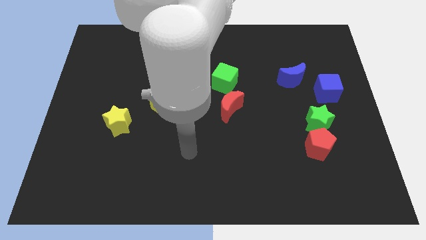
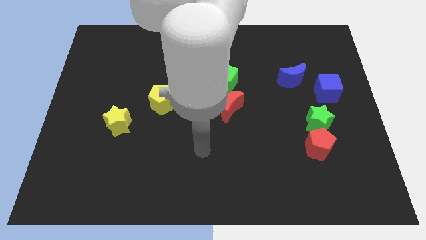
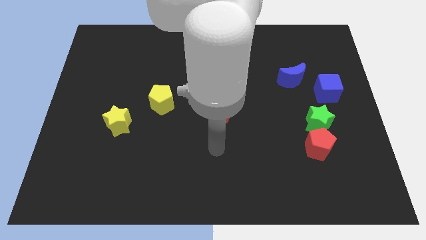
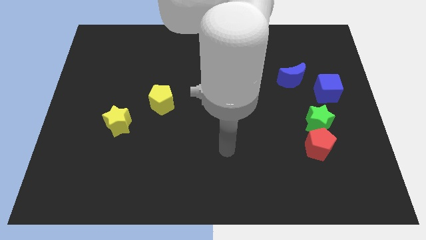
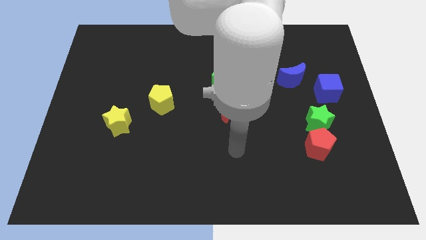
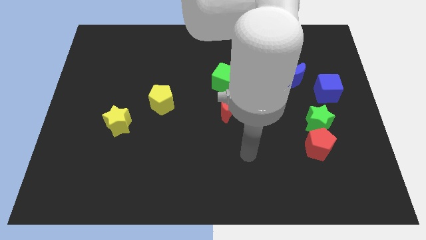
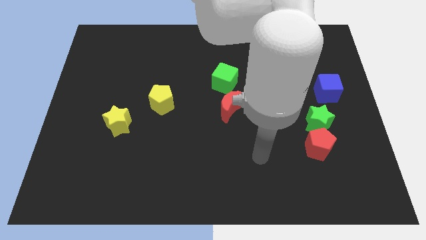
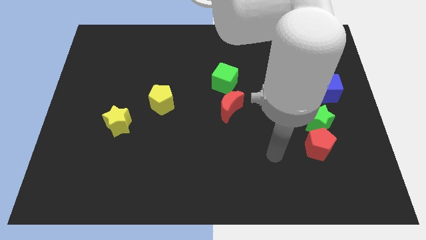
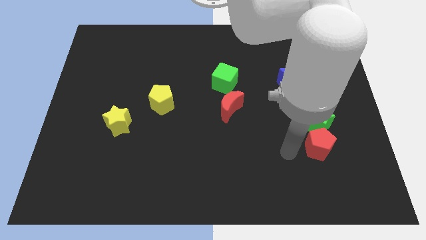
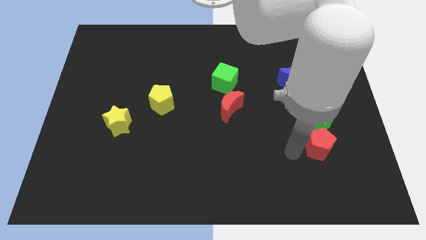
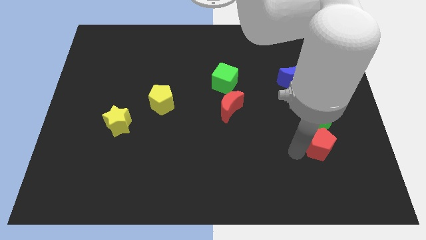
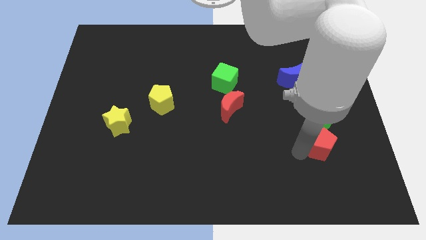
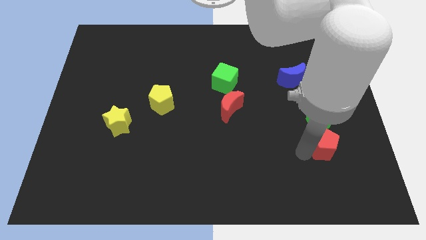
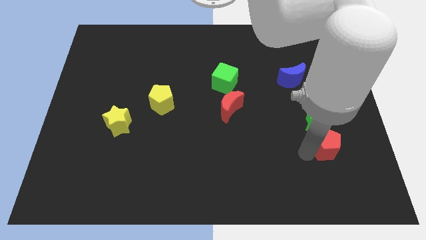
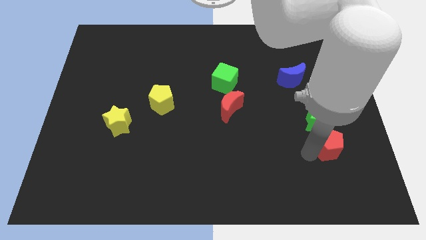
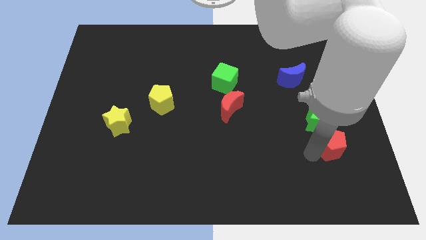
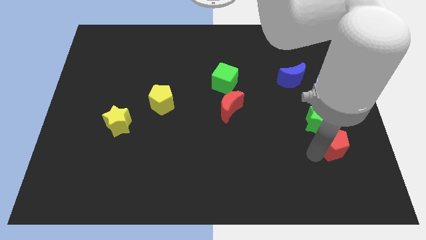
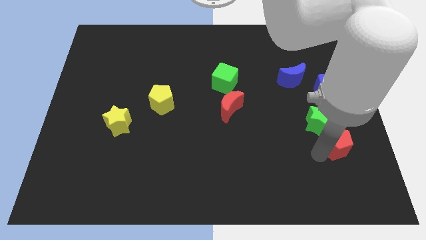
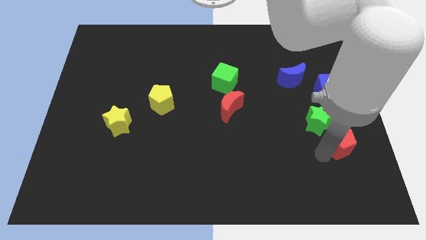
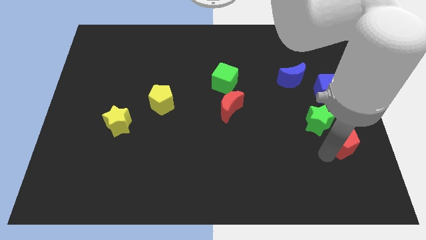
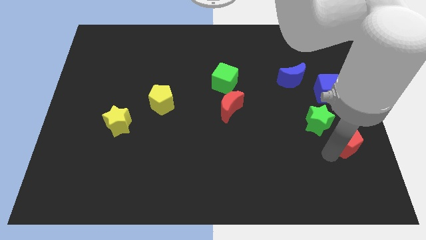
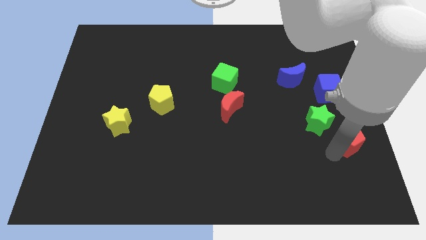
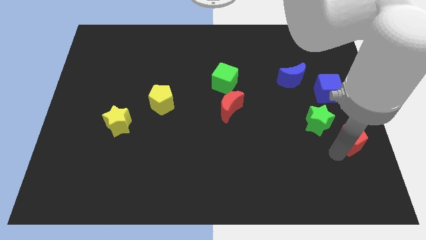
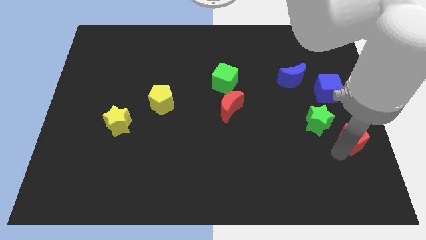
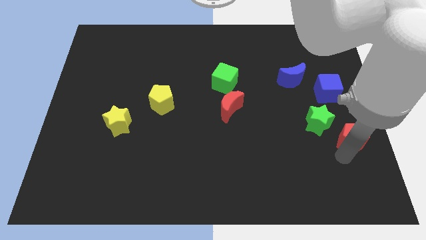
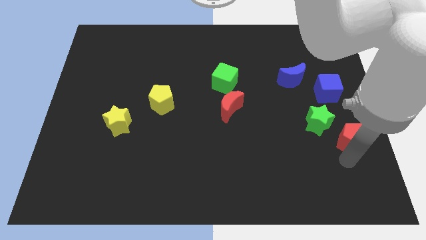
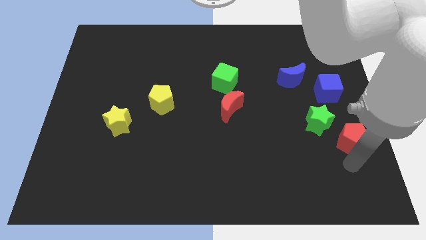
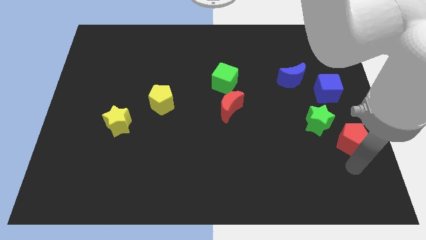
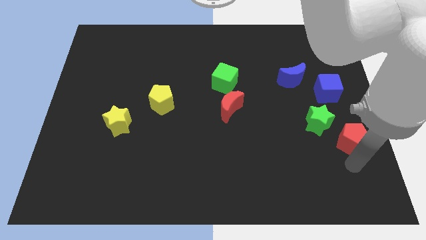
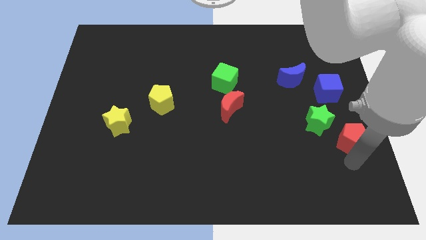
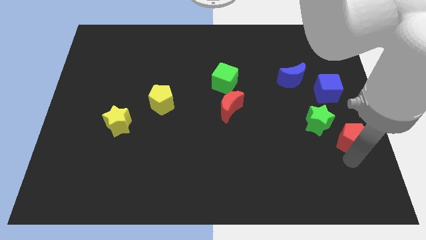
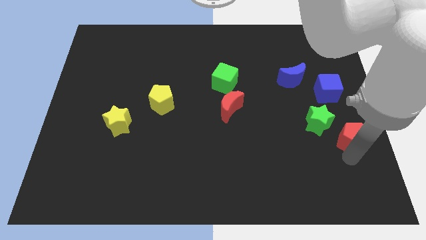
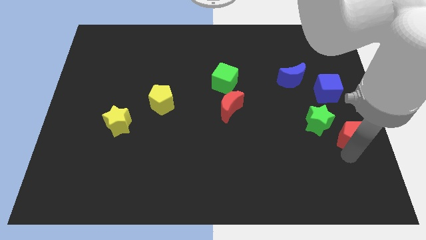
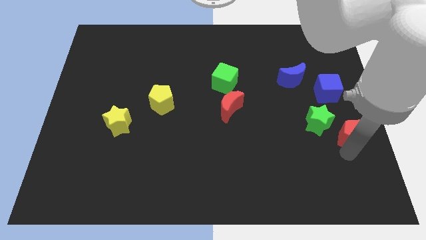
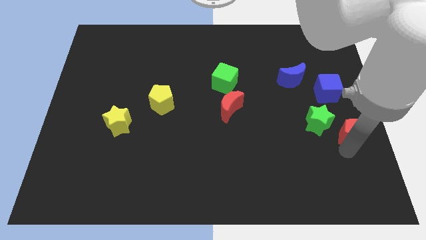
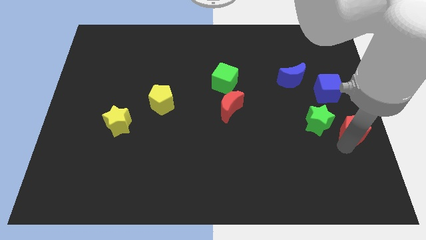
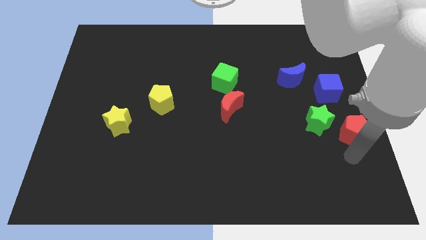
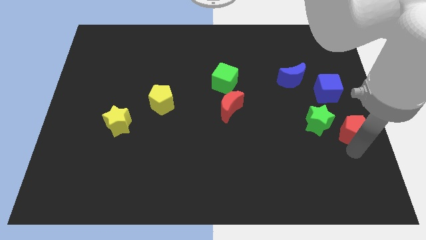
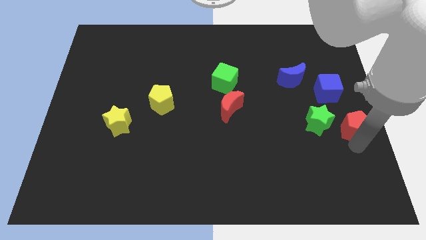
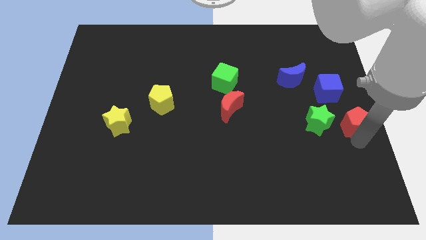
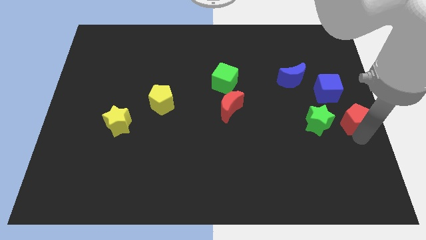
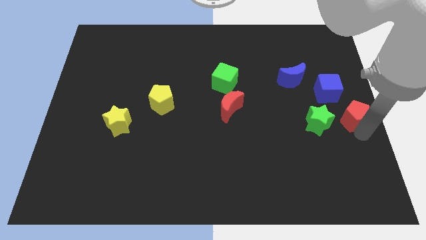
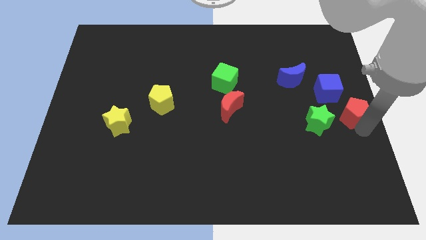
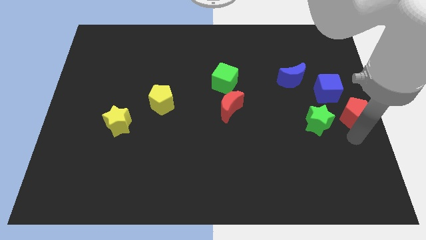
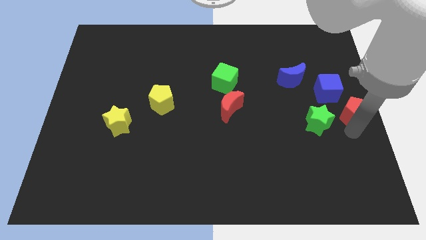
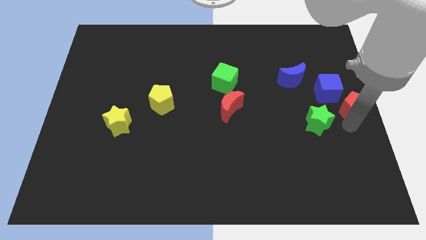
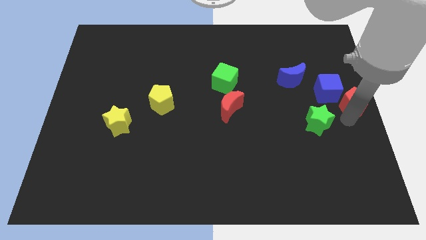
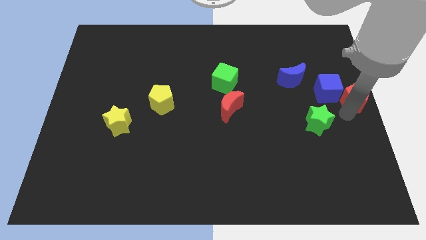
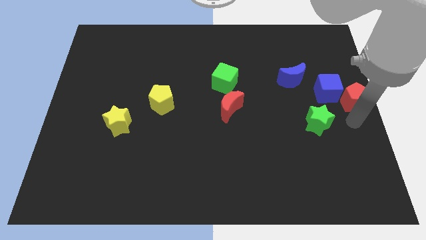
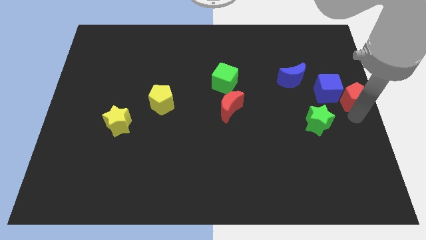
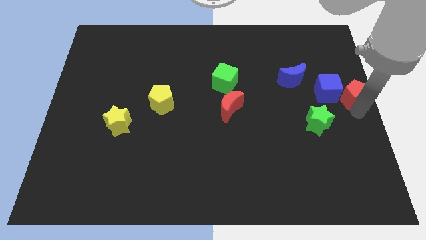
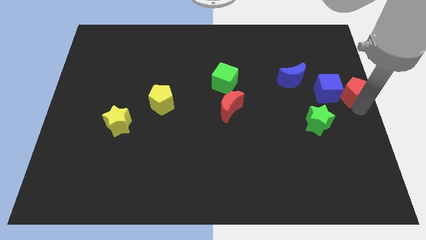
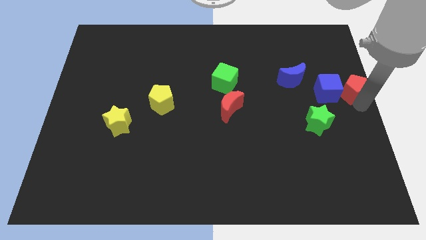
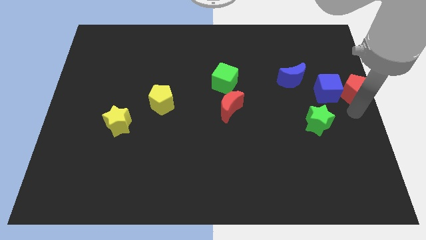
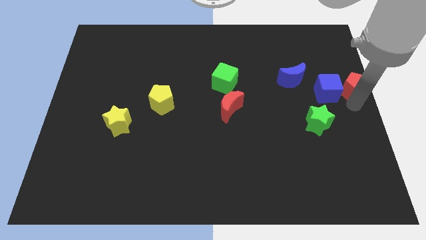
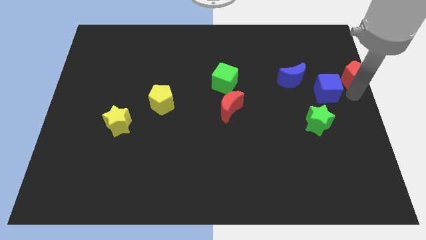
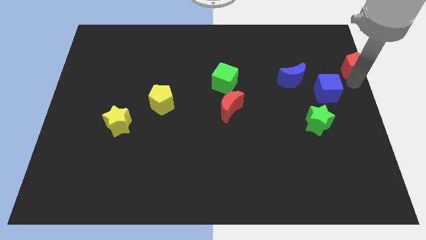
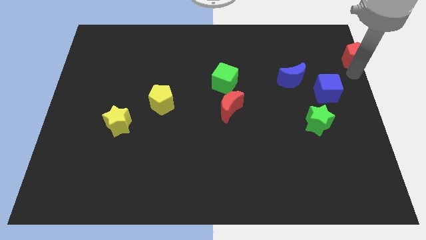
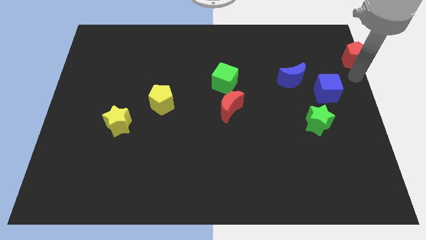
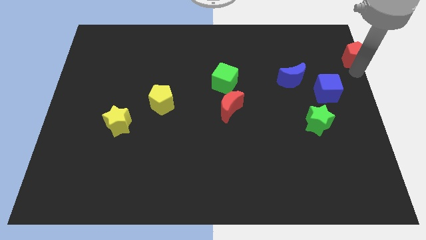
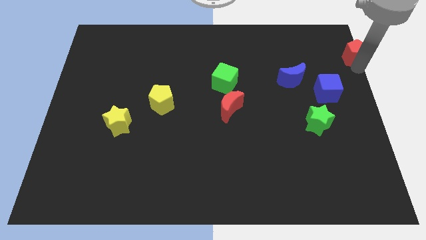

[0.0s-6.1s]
put the red pentagon to the top right of the board
